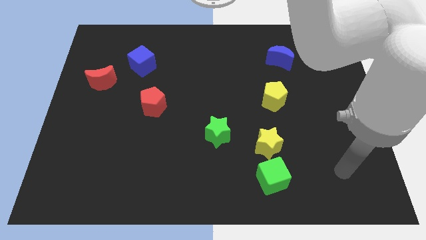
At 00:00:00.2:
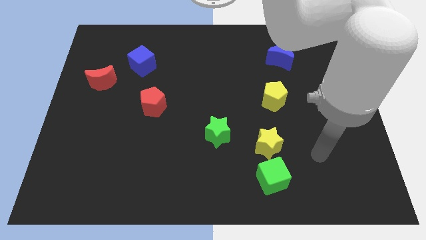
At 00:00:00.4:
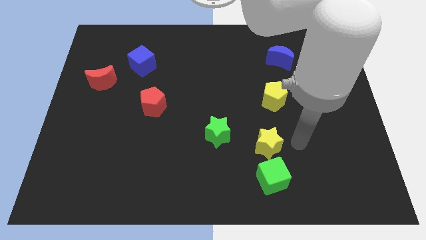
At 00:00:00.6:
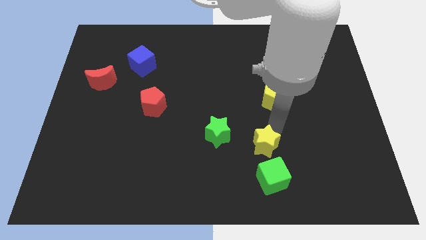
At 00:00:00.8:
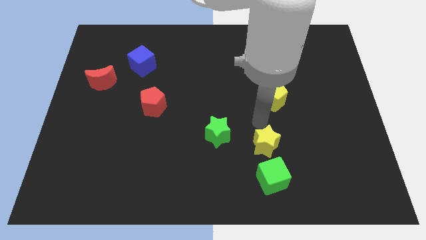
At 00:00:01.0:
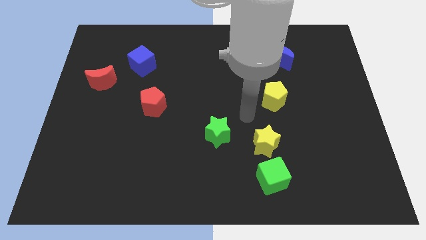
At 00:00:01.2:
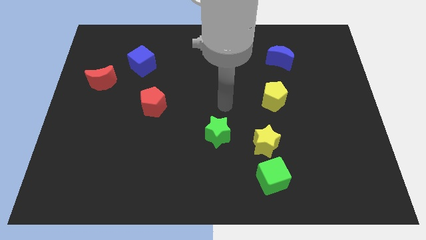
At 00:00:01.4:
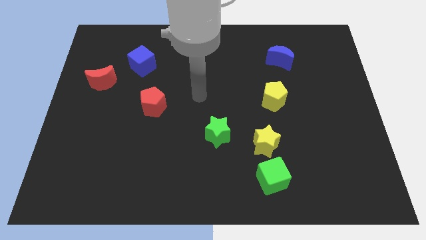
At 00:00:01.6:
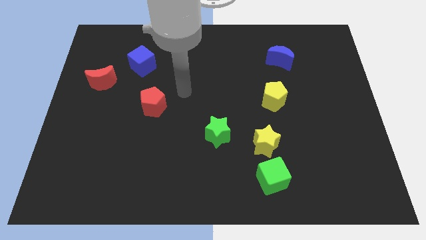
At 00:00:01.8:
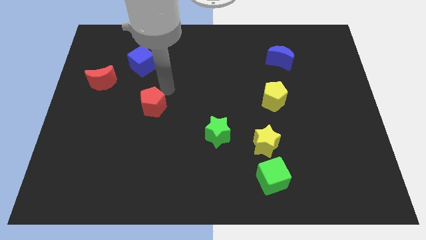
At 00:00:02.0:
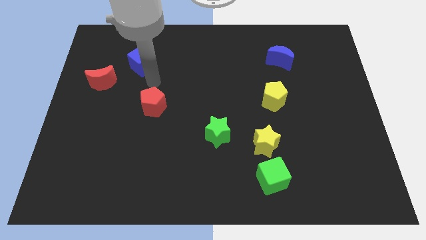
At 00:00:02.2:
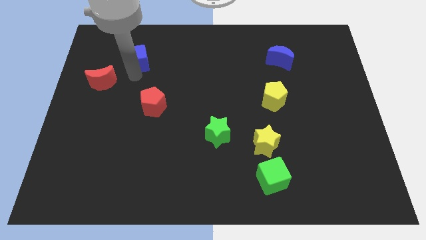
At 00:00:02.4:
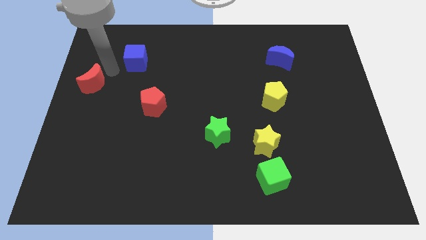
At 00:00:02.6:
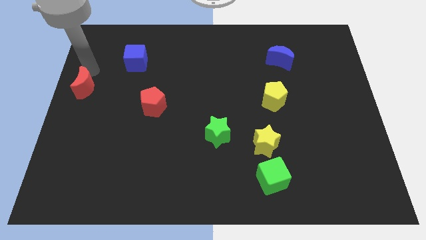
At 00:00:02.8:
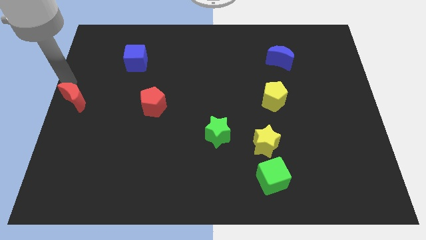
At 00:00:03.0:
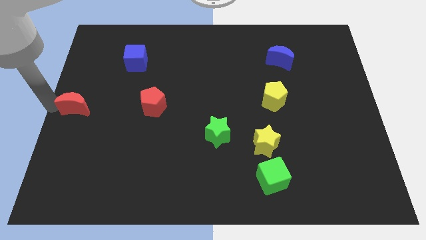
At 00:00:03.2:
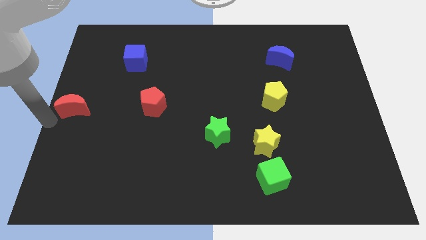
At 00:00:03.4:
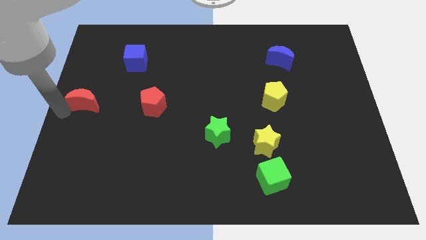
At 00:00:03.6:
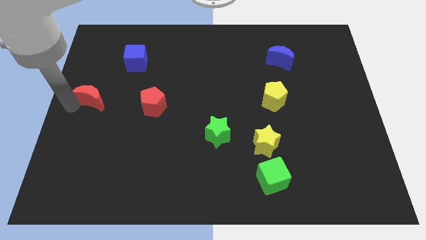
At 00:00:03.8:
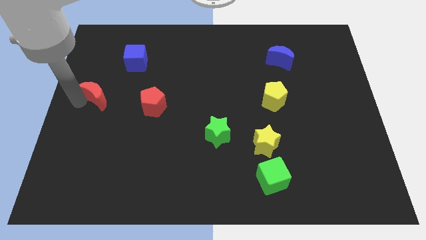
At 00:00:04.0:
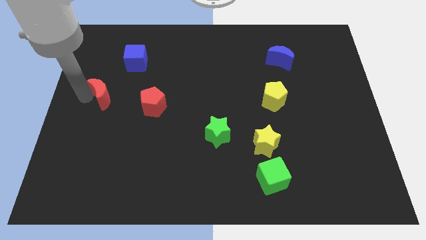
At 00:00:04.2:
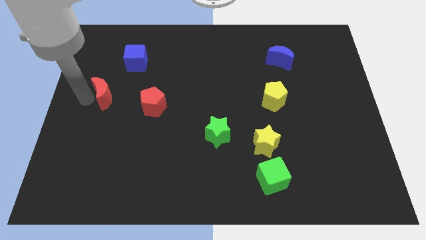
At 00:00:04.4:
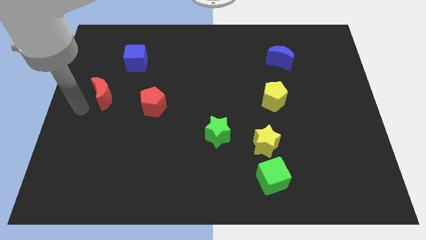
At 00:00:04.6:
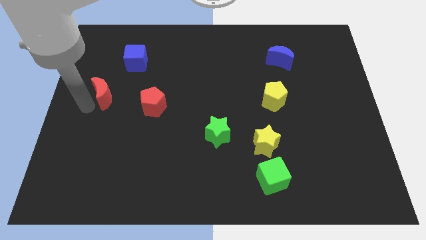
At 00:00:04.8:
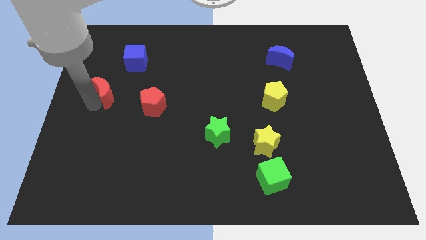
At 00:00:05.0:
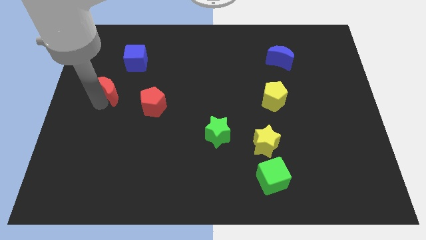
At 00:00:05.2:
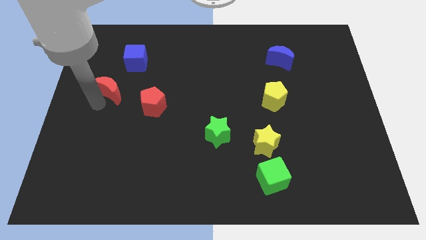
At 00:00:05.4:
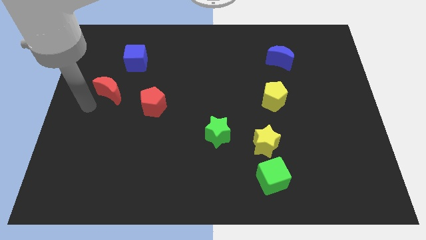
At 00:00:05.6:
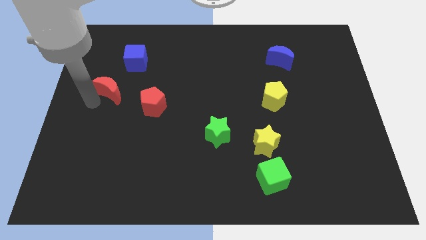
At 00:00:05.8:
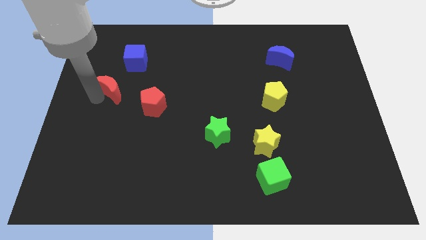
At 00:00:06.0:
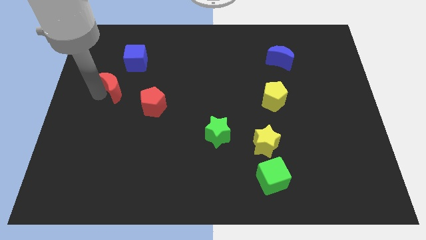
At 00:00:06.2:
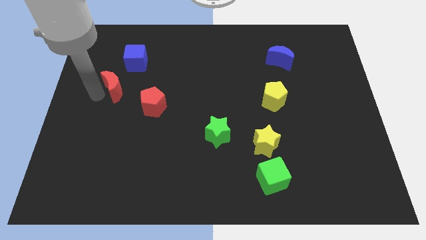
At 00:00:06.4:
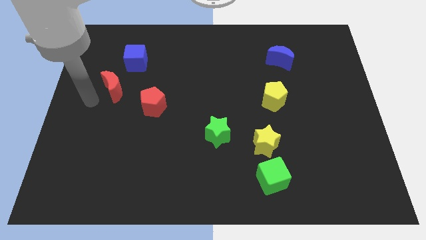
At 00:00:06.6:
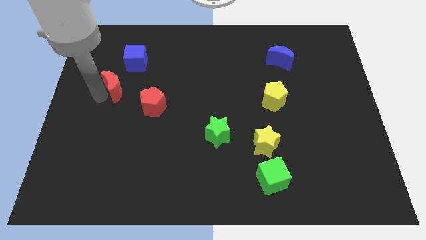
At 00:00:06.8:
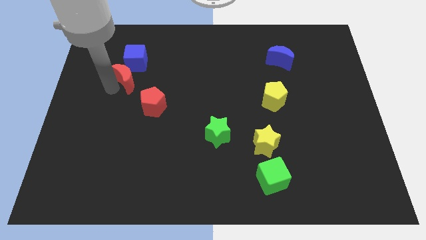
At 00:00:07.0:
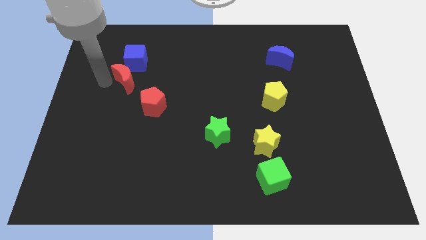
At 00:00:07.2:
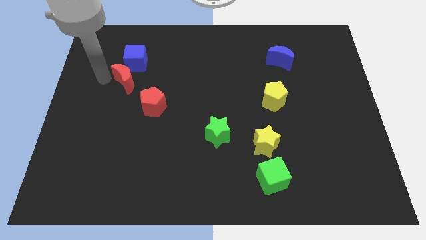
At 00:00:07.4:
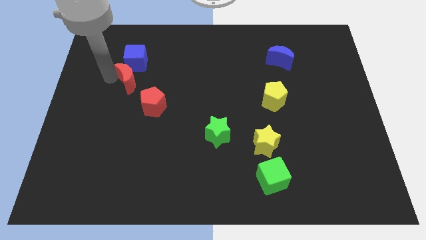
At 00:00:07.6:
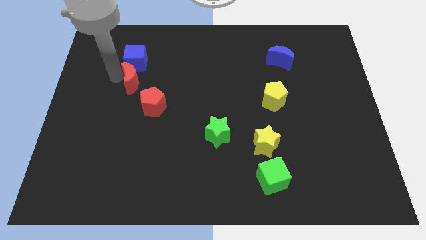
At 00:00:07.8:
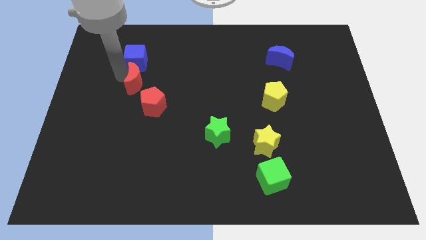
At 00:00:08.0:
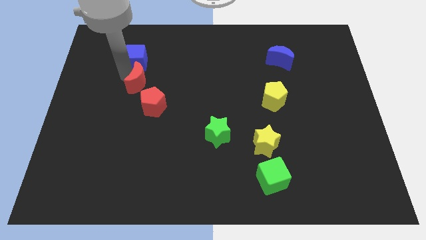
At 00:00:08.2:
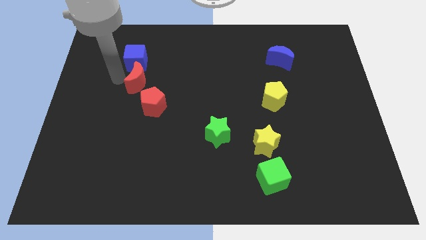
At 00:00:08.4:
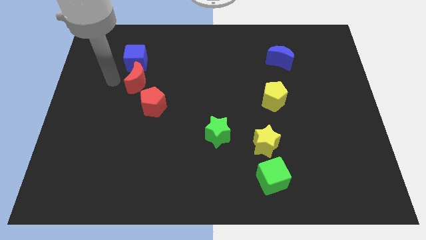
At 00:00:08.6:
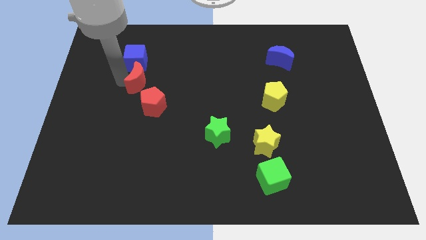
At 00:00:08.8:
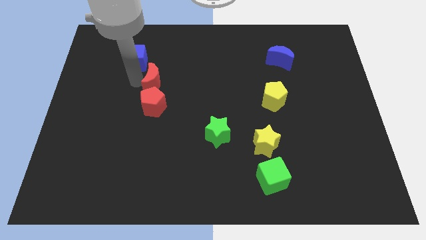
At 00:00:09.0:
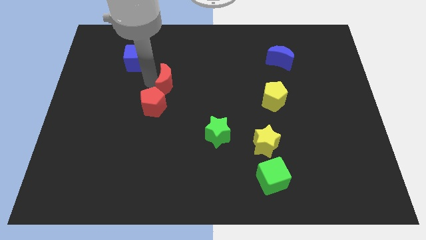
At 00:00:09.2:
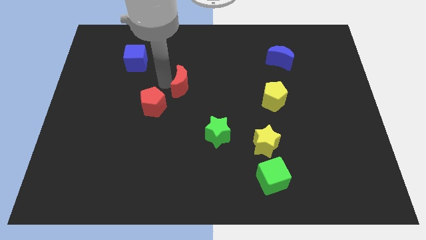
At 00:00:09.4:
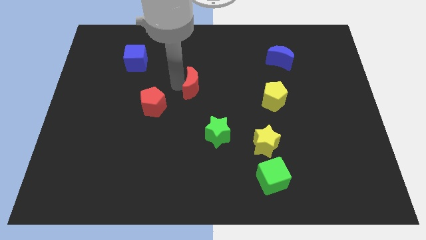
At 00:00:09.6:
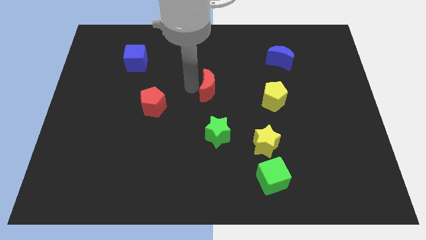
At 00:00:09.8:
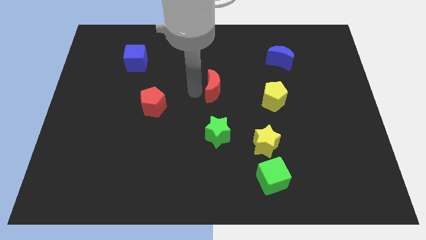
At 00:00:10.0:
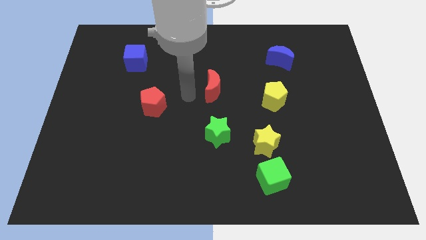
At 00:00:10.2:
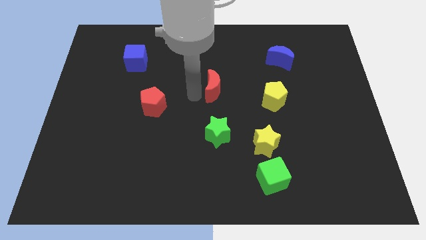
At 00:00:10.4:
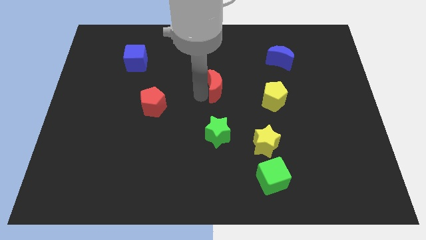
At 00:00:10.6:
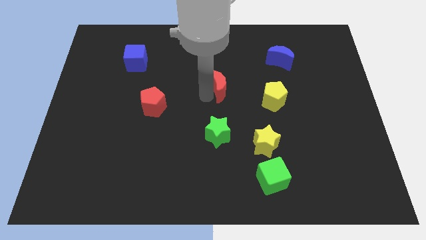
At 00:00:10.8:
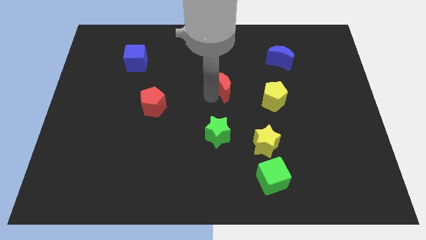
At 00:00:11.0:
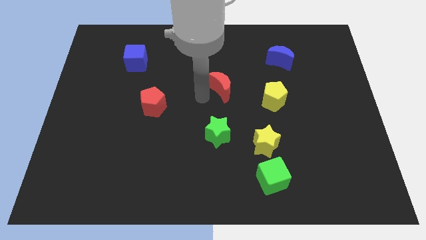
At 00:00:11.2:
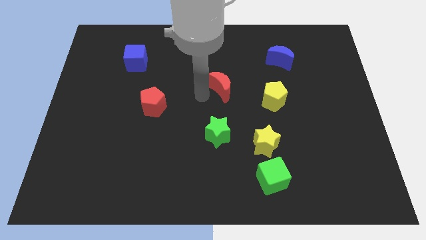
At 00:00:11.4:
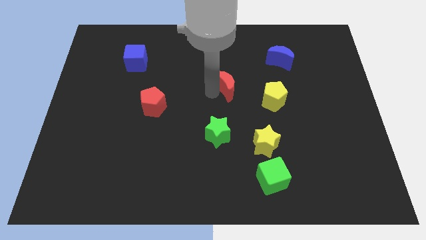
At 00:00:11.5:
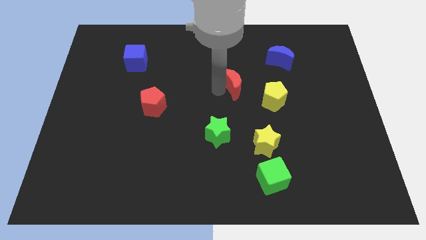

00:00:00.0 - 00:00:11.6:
move the red moon to the top left of the yellow pentagon

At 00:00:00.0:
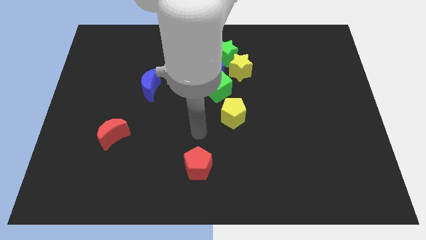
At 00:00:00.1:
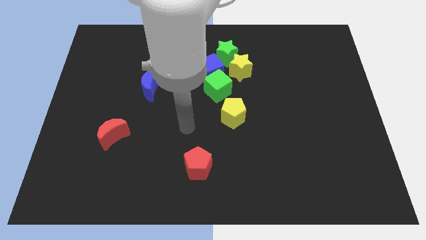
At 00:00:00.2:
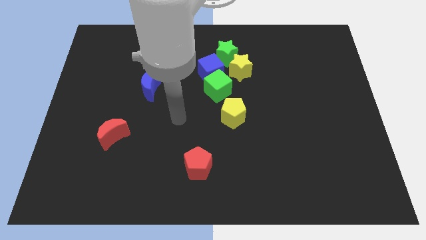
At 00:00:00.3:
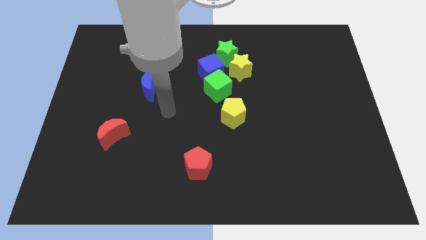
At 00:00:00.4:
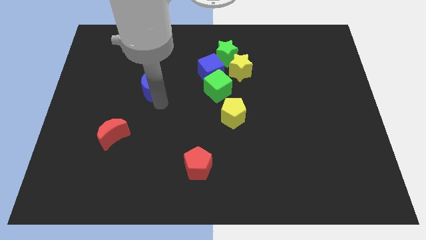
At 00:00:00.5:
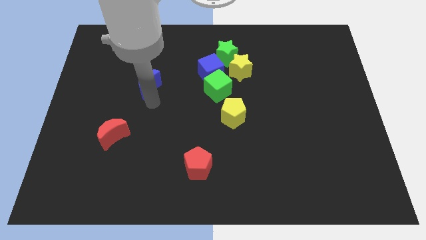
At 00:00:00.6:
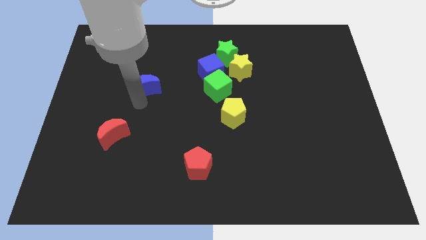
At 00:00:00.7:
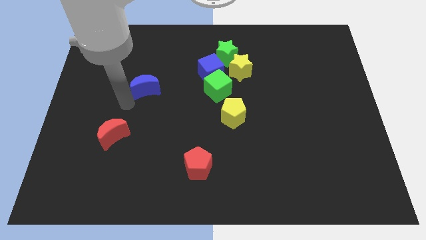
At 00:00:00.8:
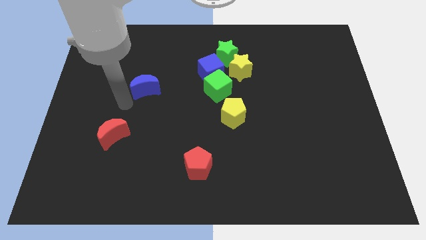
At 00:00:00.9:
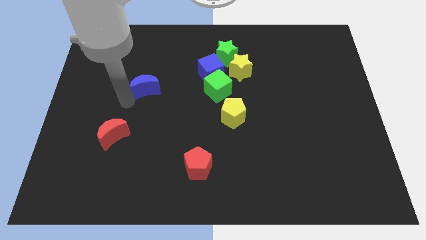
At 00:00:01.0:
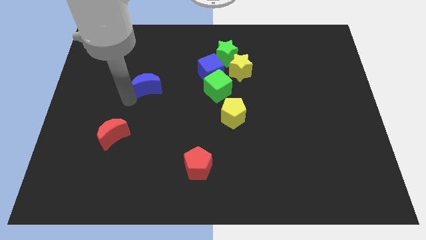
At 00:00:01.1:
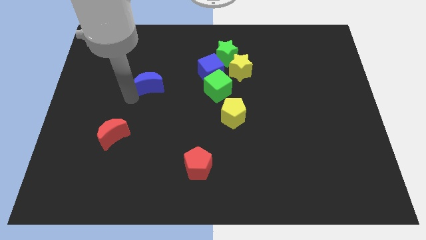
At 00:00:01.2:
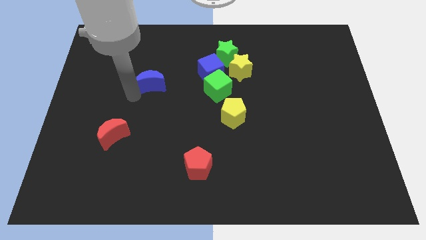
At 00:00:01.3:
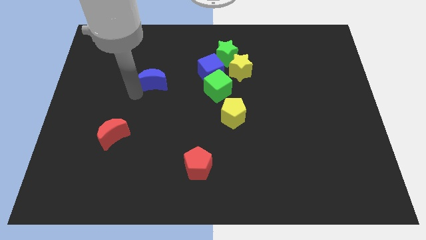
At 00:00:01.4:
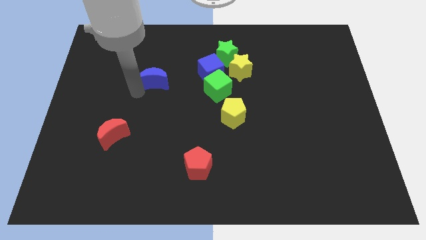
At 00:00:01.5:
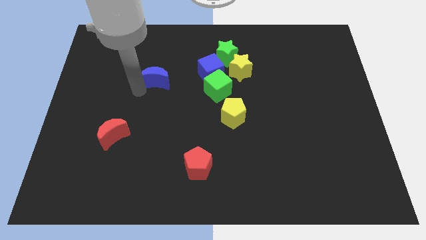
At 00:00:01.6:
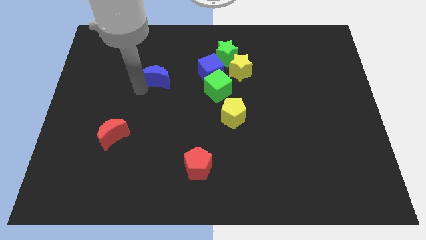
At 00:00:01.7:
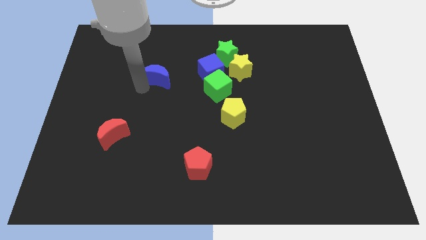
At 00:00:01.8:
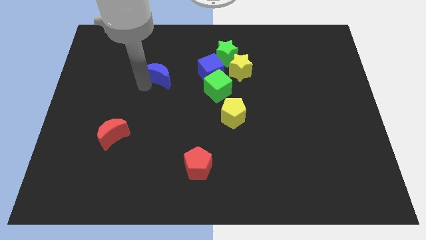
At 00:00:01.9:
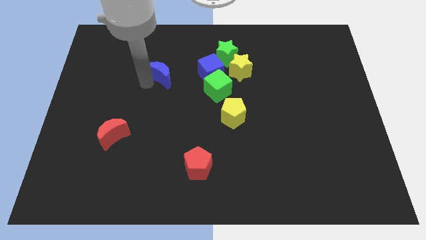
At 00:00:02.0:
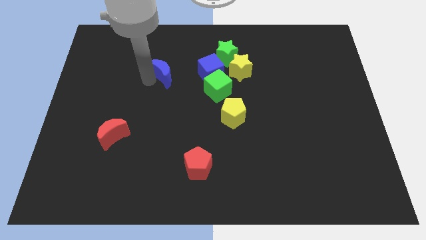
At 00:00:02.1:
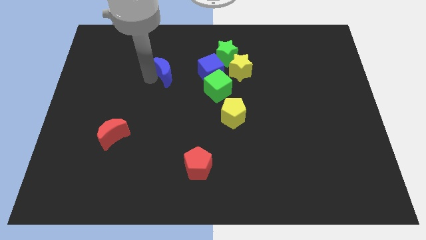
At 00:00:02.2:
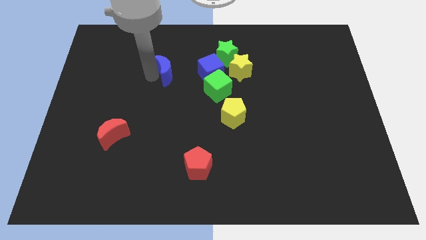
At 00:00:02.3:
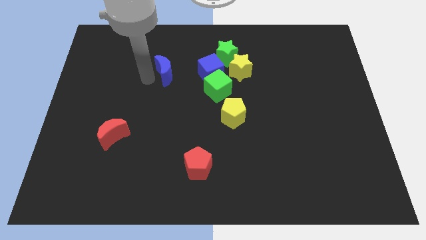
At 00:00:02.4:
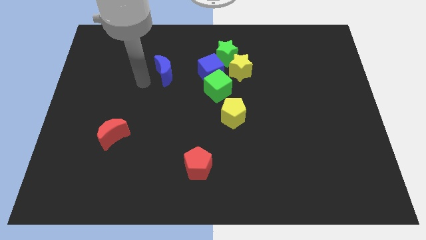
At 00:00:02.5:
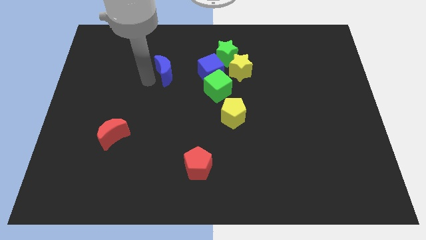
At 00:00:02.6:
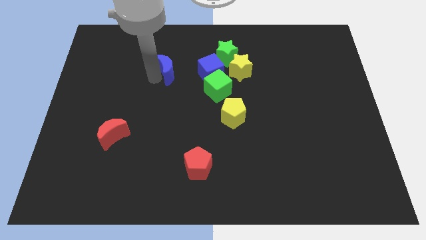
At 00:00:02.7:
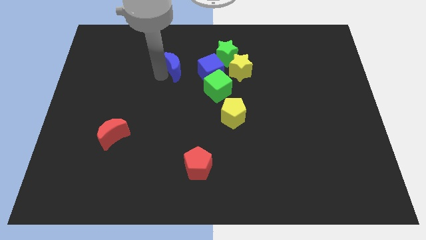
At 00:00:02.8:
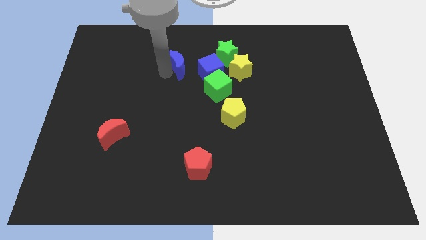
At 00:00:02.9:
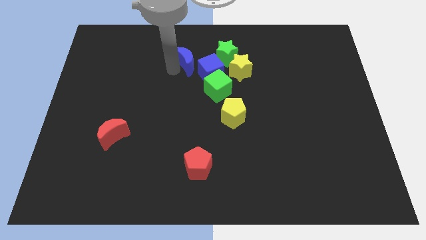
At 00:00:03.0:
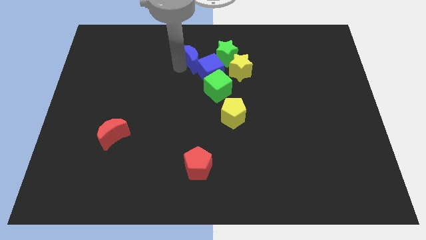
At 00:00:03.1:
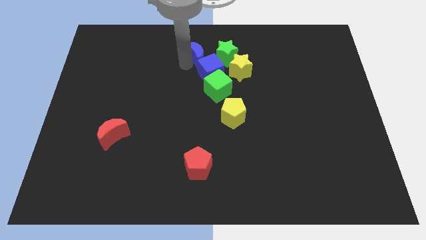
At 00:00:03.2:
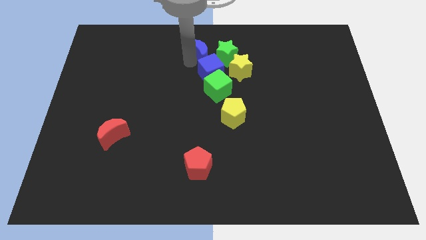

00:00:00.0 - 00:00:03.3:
push the blue moon above the green cube
